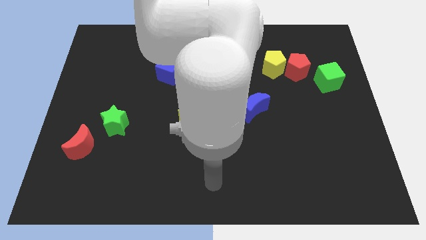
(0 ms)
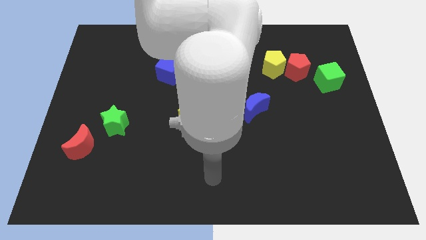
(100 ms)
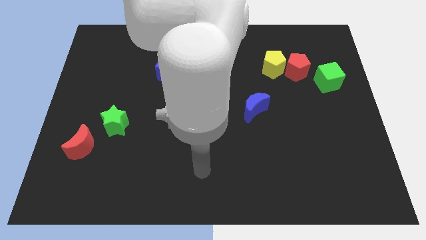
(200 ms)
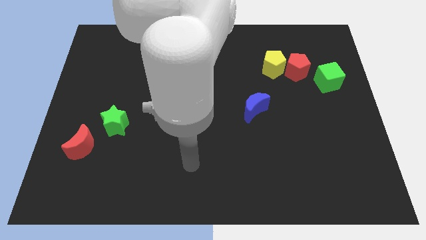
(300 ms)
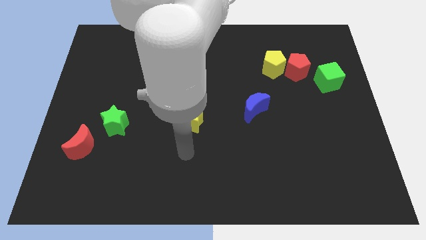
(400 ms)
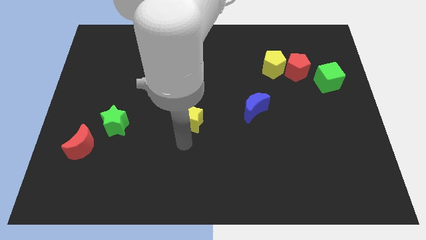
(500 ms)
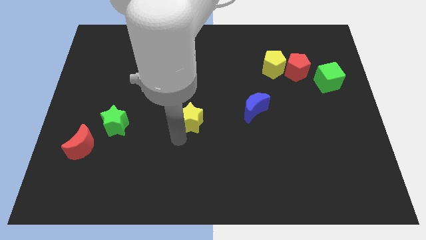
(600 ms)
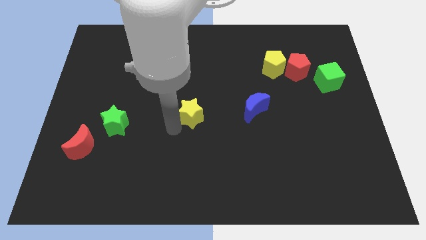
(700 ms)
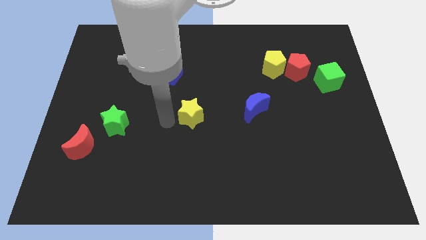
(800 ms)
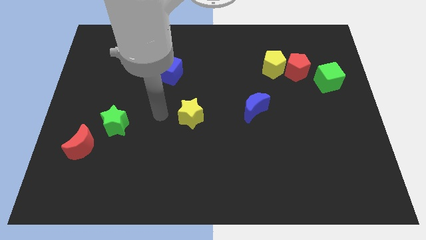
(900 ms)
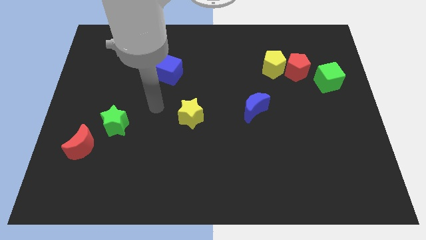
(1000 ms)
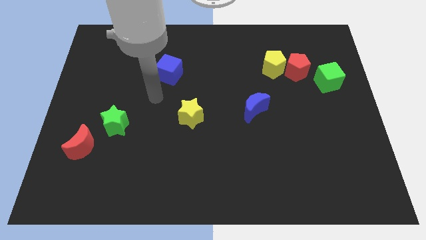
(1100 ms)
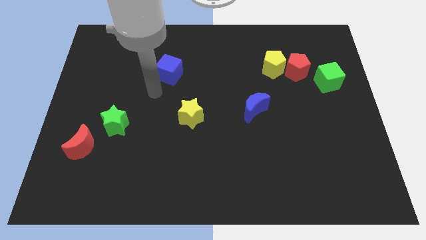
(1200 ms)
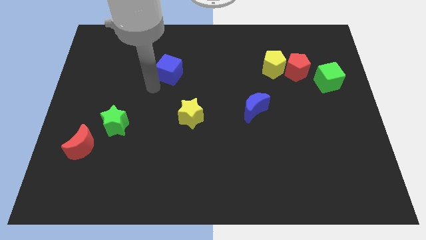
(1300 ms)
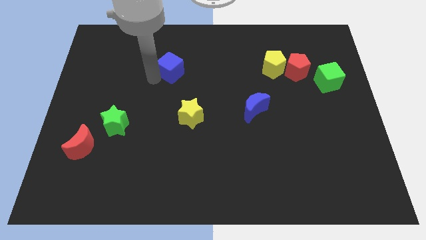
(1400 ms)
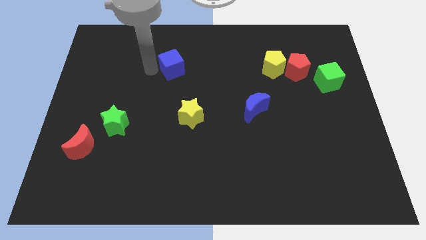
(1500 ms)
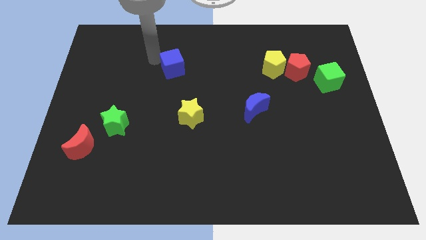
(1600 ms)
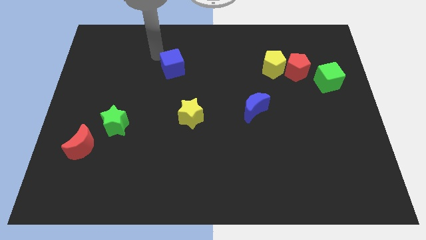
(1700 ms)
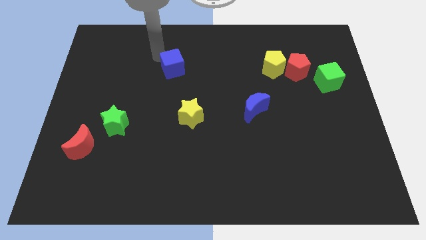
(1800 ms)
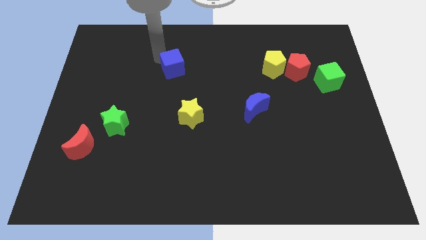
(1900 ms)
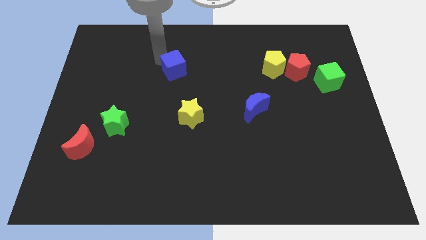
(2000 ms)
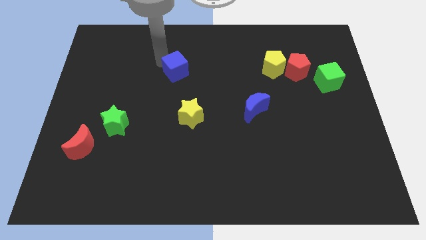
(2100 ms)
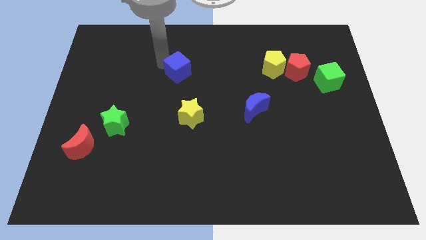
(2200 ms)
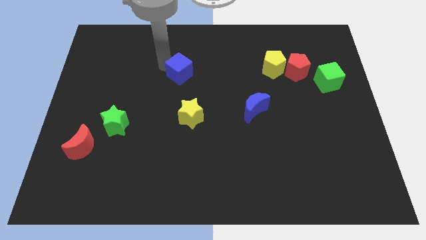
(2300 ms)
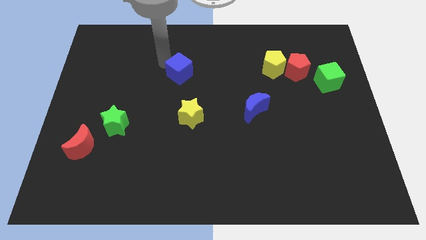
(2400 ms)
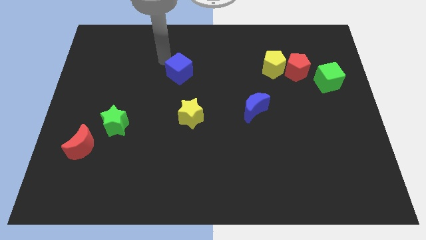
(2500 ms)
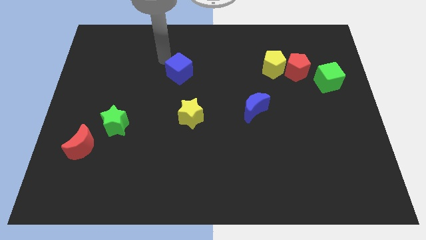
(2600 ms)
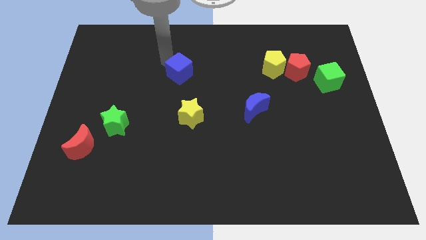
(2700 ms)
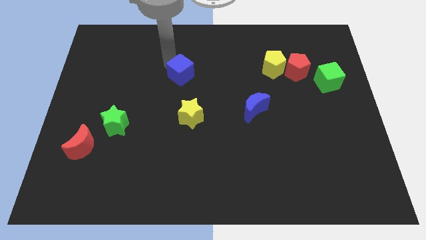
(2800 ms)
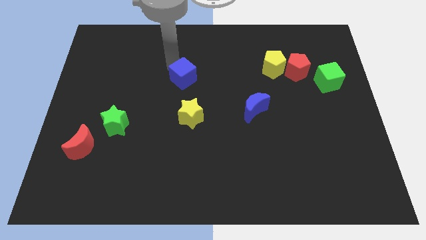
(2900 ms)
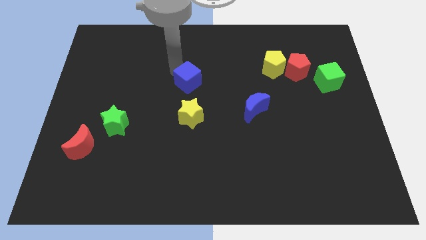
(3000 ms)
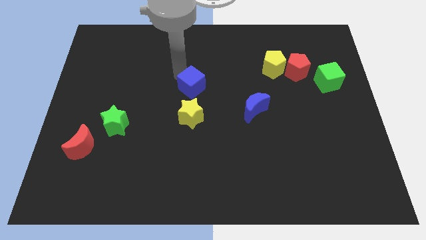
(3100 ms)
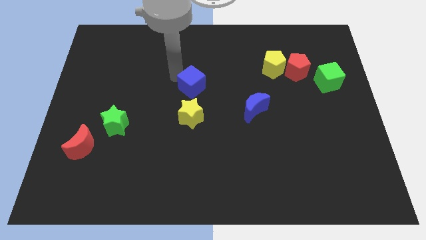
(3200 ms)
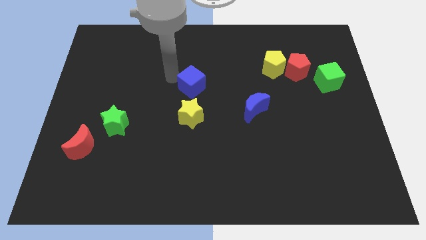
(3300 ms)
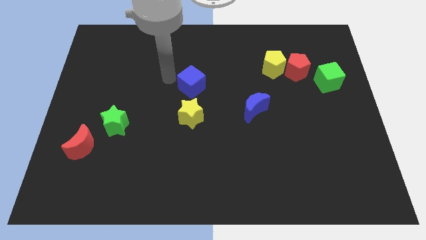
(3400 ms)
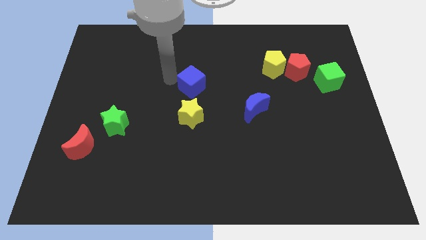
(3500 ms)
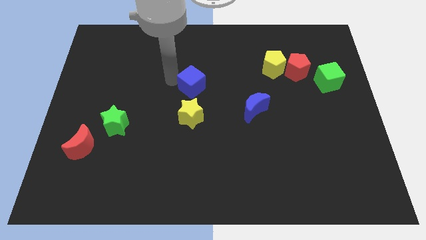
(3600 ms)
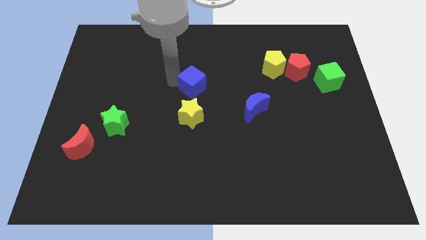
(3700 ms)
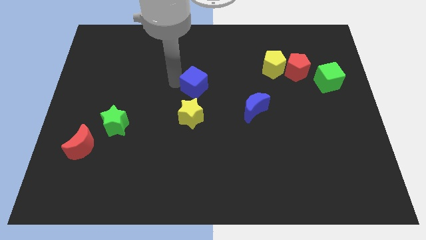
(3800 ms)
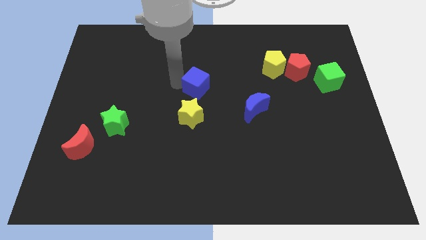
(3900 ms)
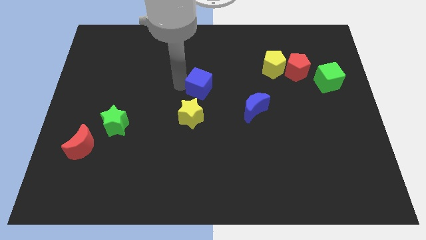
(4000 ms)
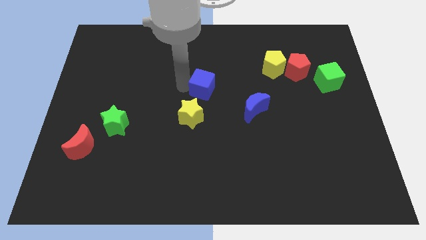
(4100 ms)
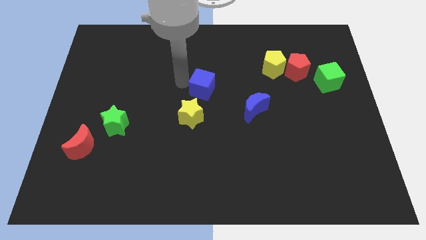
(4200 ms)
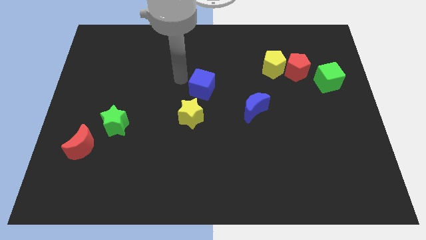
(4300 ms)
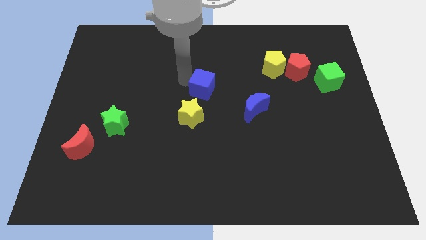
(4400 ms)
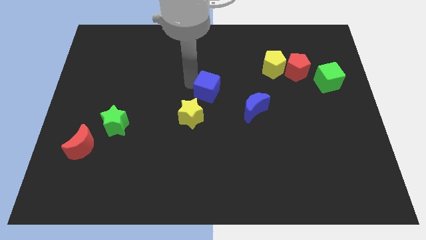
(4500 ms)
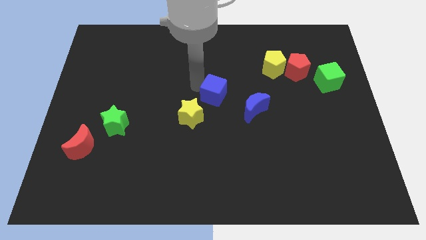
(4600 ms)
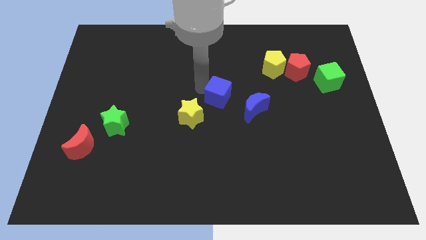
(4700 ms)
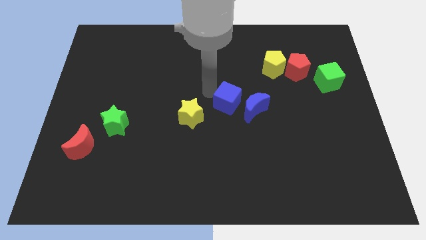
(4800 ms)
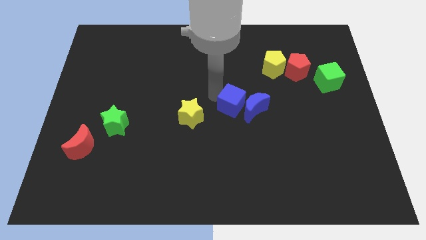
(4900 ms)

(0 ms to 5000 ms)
slide the blue cube towards the blue moon

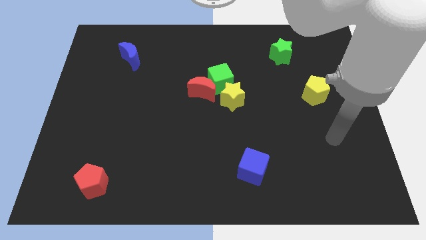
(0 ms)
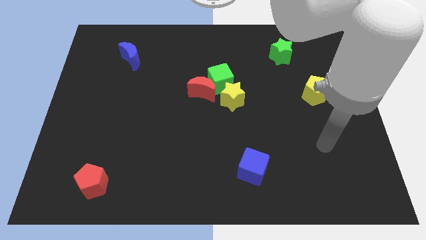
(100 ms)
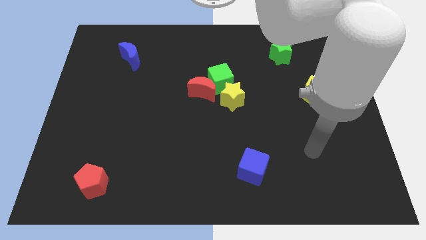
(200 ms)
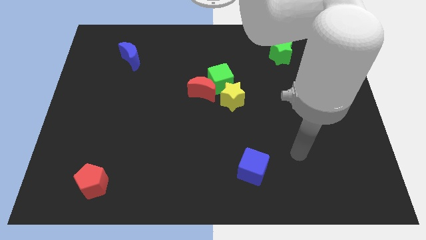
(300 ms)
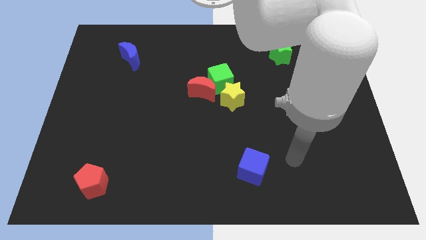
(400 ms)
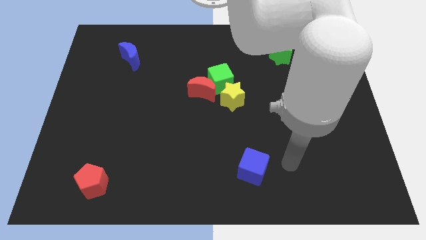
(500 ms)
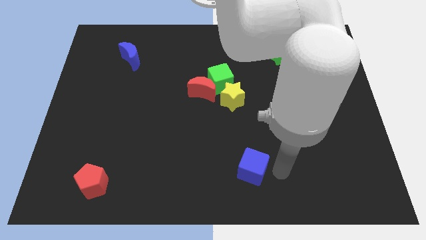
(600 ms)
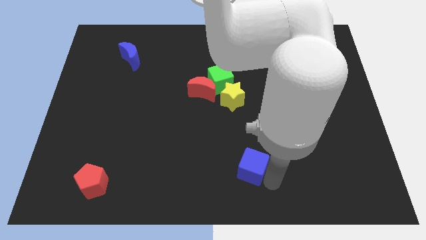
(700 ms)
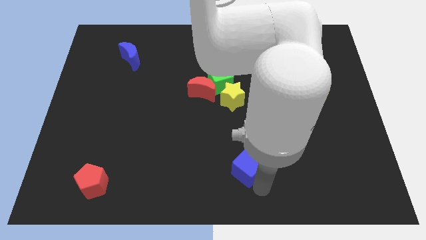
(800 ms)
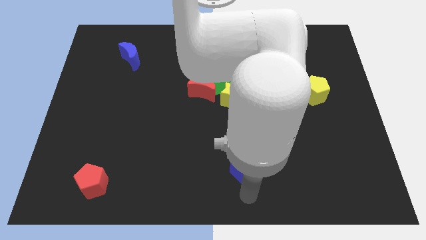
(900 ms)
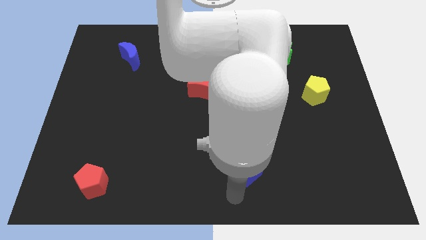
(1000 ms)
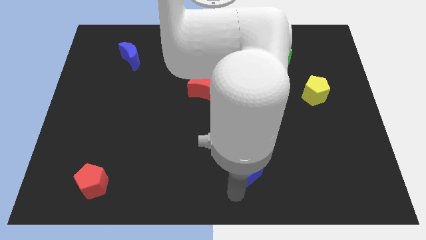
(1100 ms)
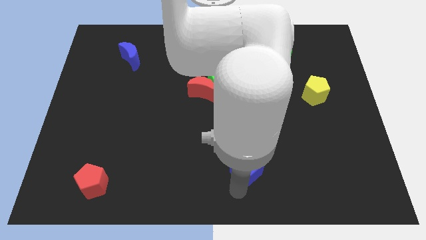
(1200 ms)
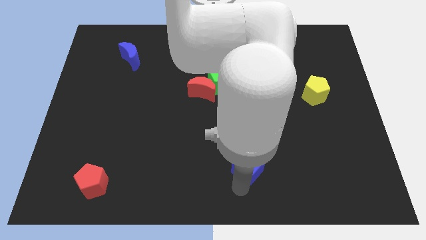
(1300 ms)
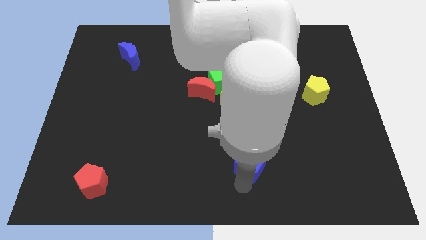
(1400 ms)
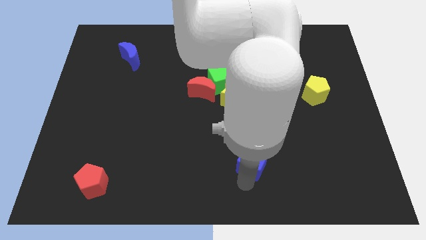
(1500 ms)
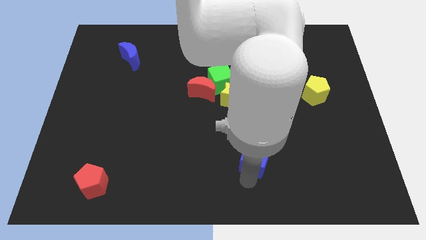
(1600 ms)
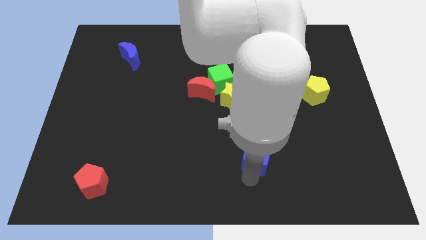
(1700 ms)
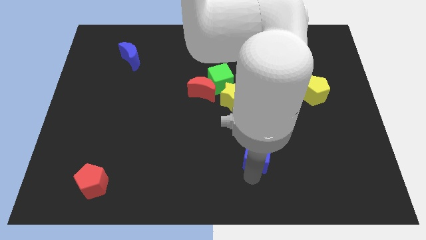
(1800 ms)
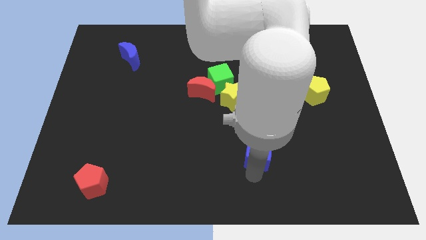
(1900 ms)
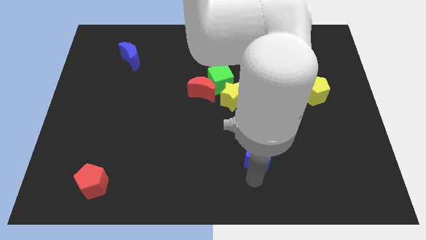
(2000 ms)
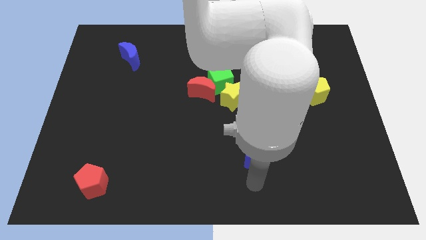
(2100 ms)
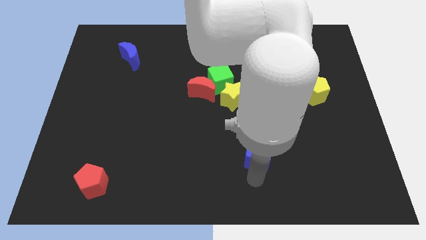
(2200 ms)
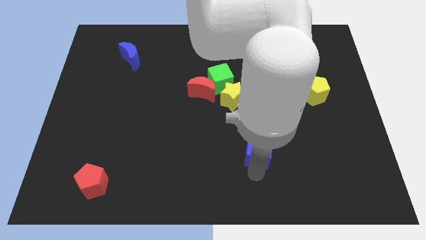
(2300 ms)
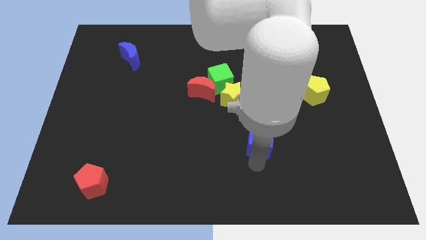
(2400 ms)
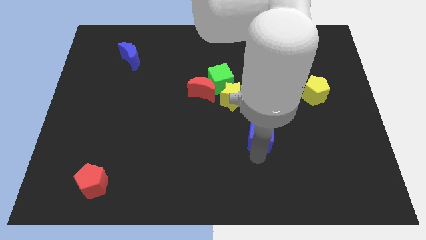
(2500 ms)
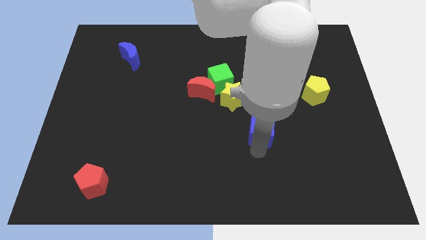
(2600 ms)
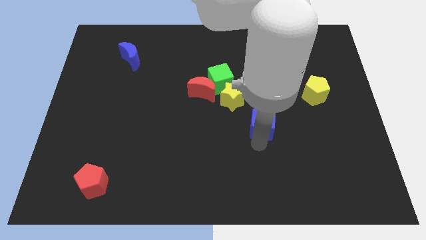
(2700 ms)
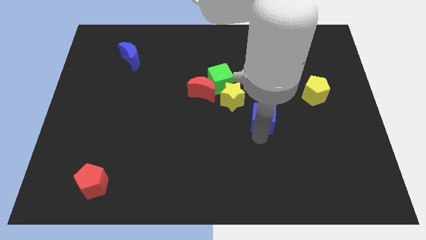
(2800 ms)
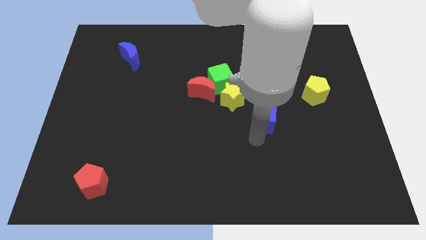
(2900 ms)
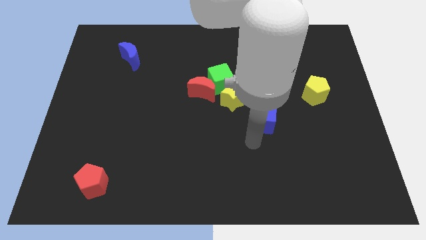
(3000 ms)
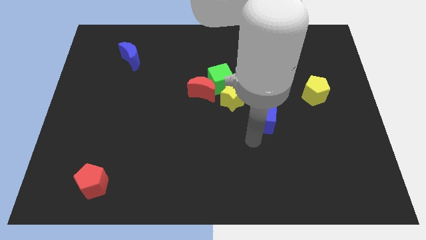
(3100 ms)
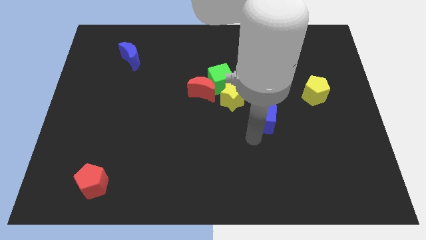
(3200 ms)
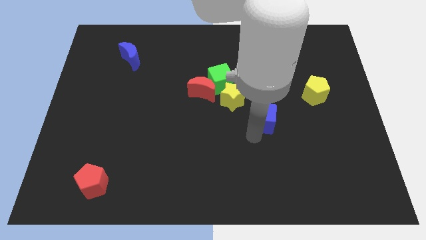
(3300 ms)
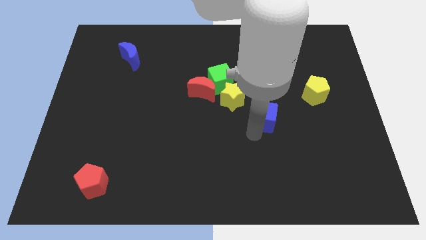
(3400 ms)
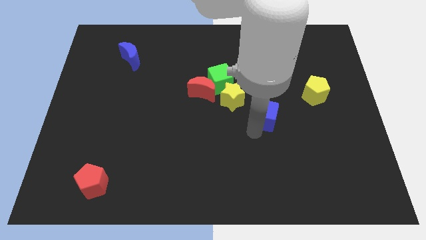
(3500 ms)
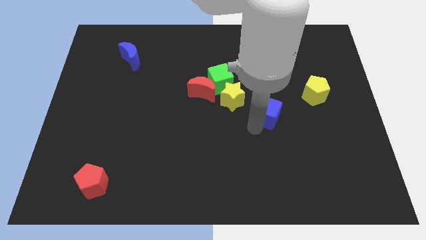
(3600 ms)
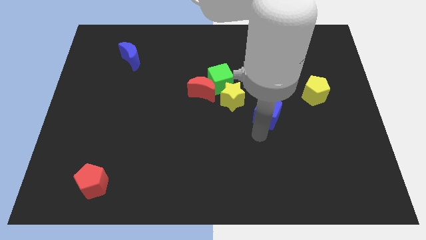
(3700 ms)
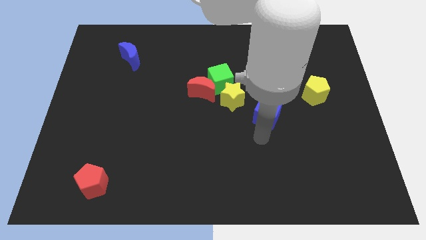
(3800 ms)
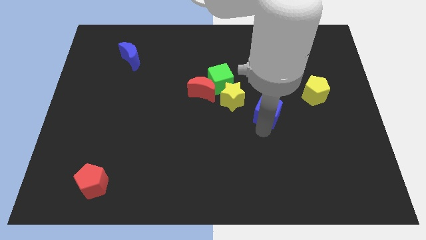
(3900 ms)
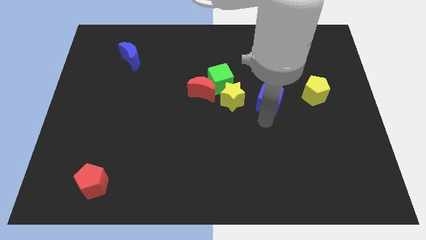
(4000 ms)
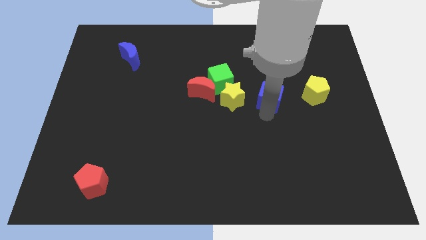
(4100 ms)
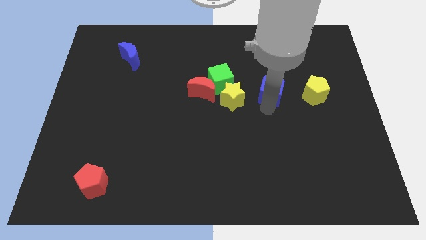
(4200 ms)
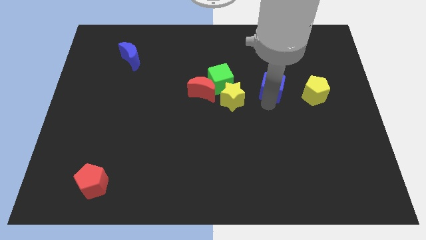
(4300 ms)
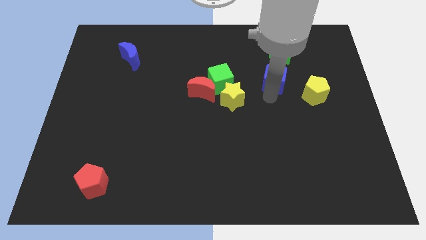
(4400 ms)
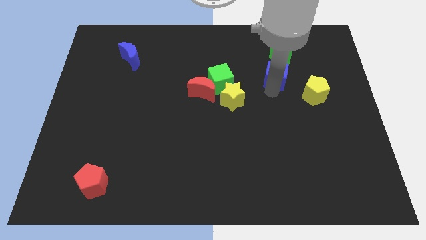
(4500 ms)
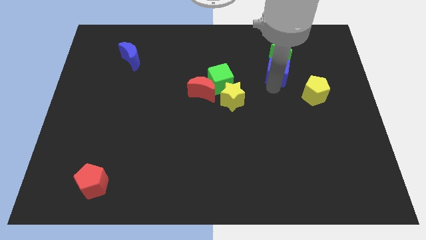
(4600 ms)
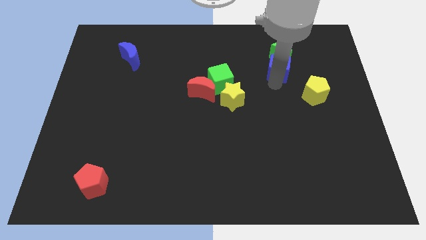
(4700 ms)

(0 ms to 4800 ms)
push the blue cube towards the green star
